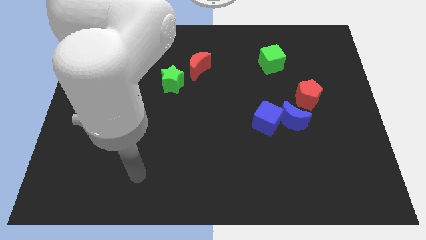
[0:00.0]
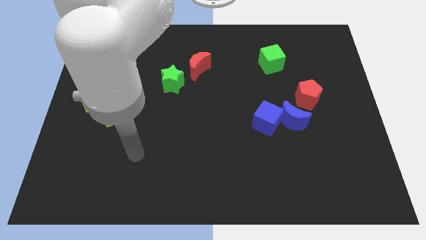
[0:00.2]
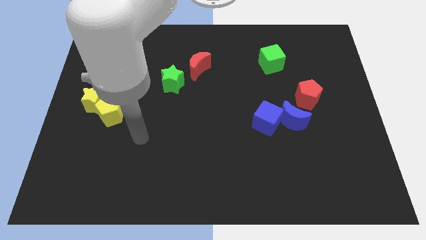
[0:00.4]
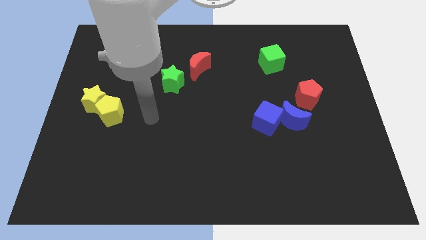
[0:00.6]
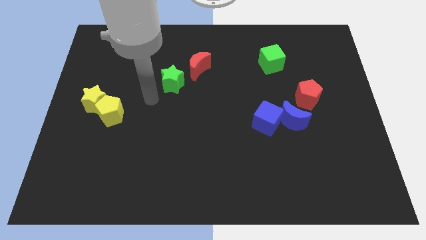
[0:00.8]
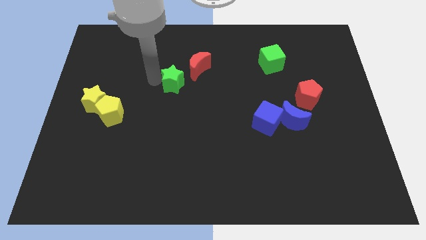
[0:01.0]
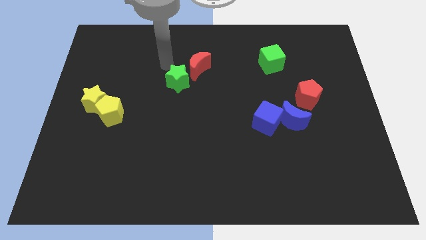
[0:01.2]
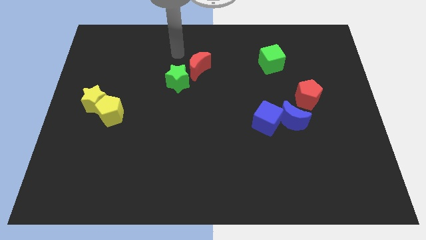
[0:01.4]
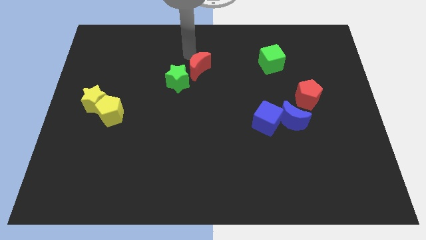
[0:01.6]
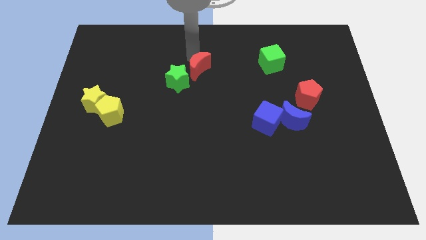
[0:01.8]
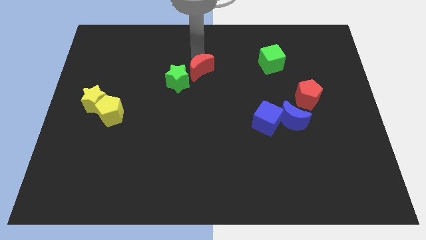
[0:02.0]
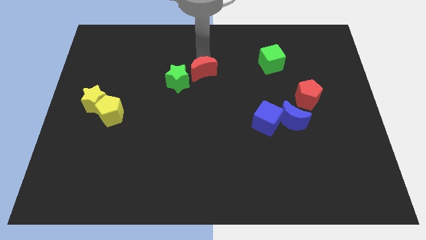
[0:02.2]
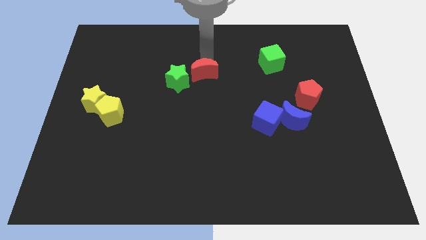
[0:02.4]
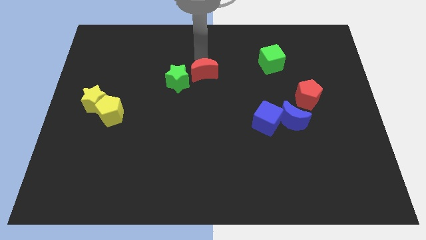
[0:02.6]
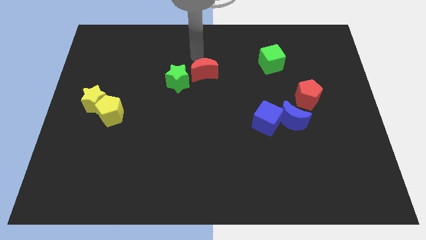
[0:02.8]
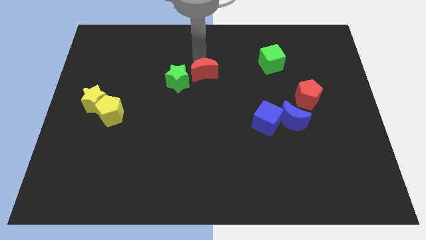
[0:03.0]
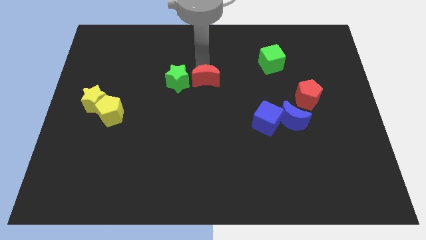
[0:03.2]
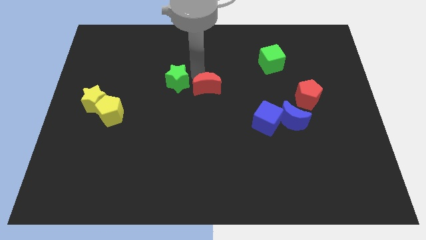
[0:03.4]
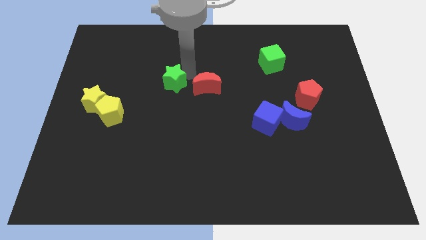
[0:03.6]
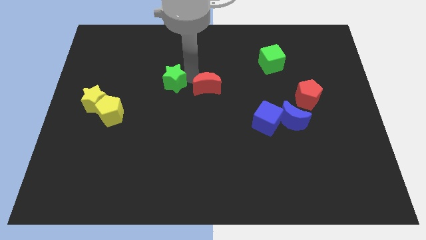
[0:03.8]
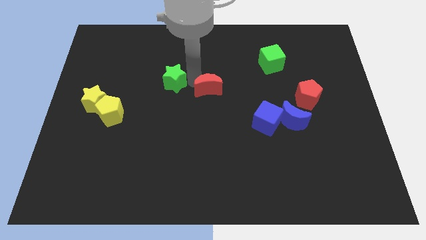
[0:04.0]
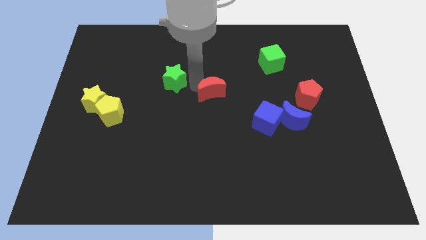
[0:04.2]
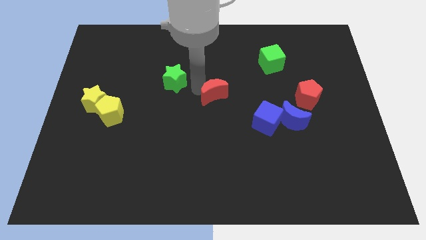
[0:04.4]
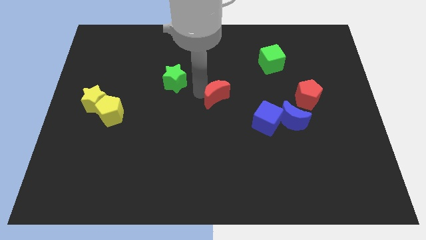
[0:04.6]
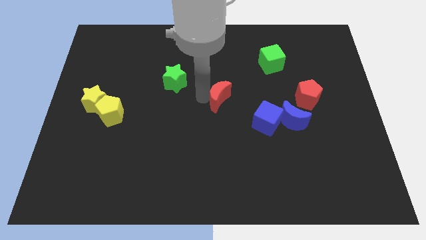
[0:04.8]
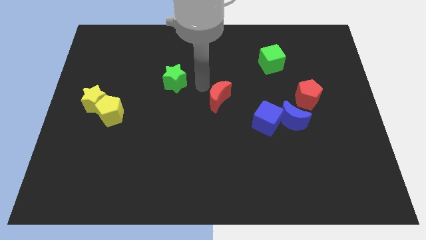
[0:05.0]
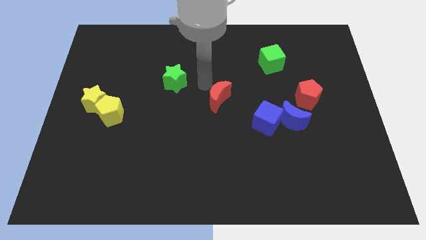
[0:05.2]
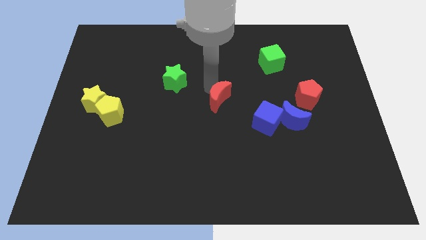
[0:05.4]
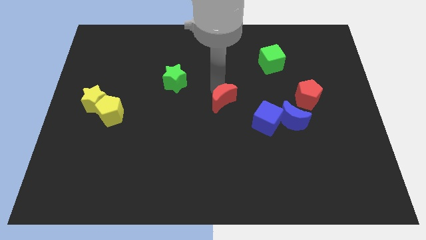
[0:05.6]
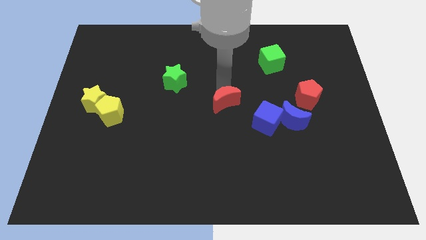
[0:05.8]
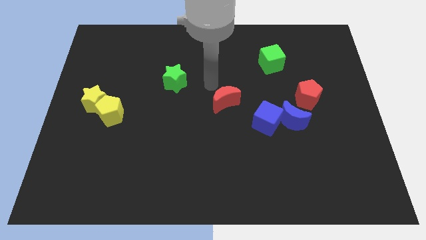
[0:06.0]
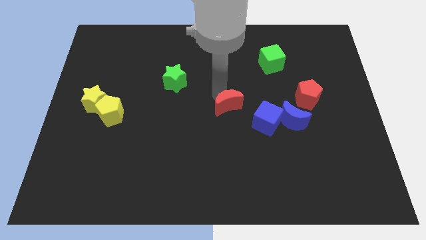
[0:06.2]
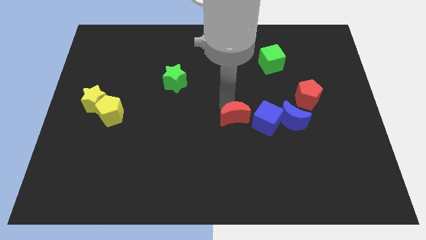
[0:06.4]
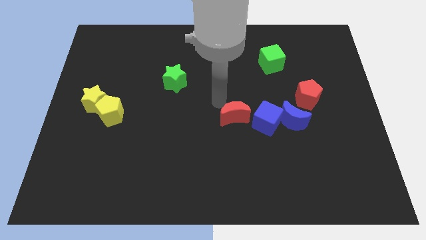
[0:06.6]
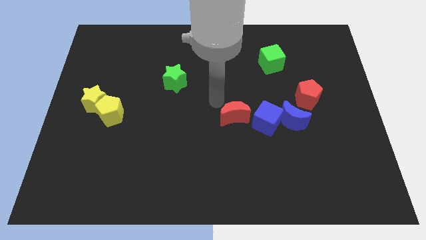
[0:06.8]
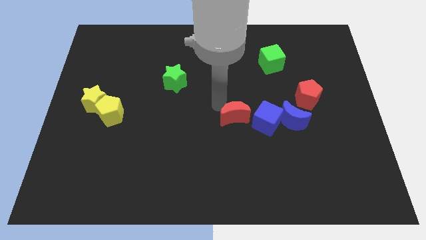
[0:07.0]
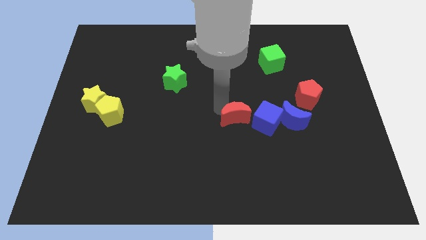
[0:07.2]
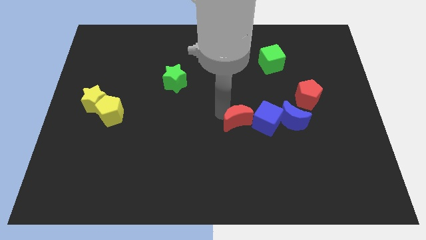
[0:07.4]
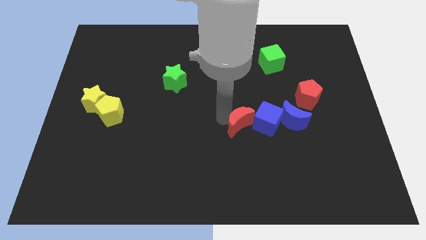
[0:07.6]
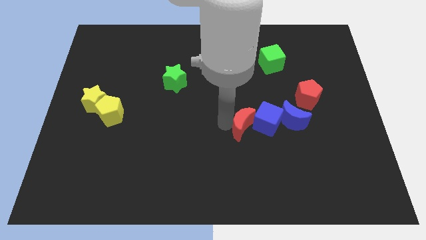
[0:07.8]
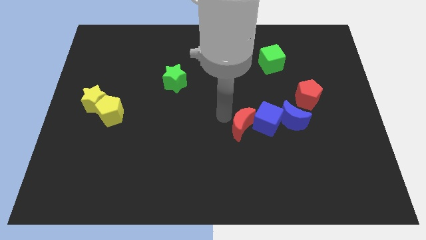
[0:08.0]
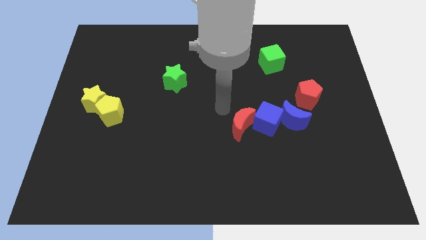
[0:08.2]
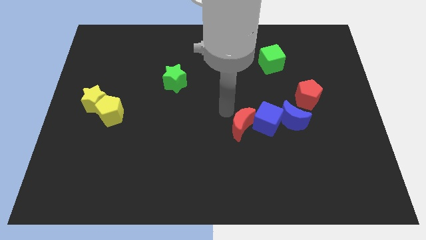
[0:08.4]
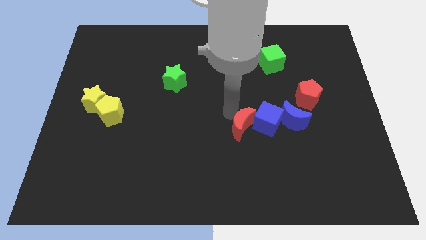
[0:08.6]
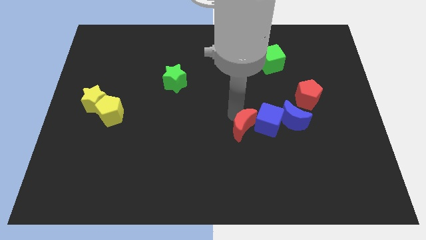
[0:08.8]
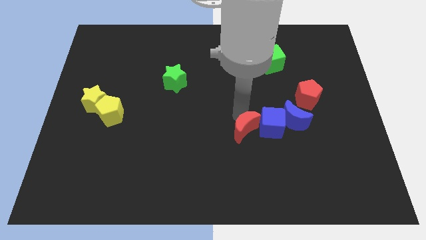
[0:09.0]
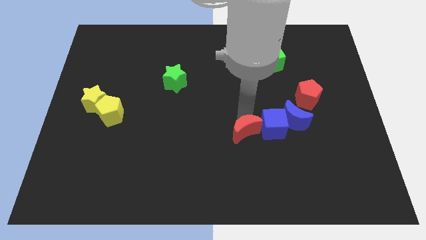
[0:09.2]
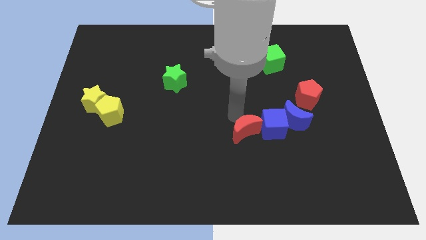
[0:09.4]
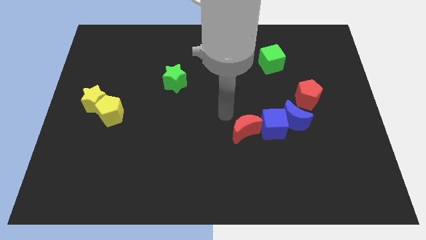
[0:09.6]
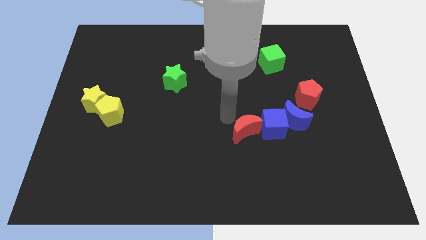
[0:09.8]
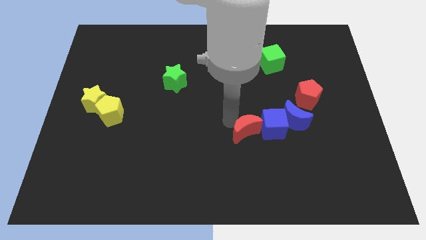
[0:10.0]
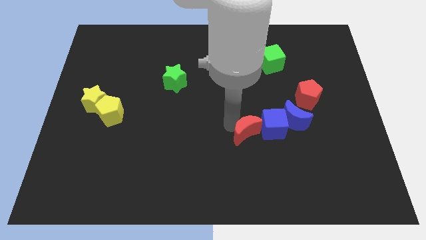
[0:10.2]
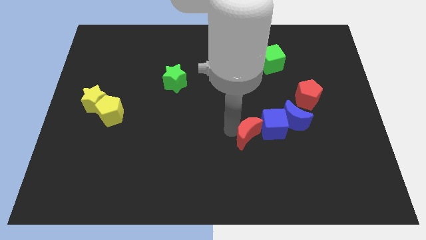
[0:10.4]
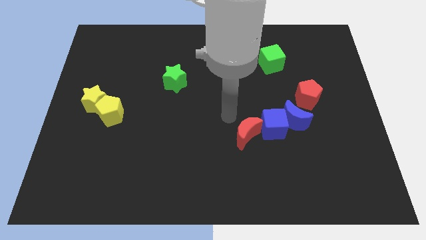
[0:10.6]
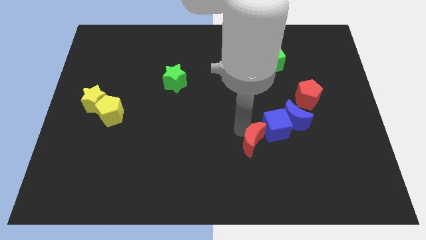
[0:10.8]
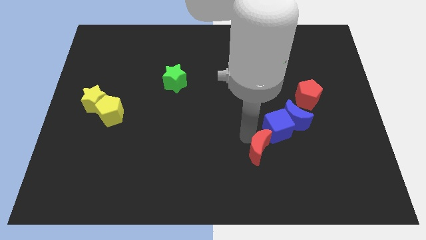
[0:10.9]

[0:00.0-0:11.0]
put the red moon to the bottom of the blue cube
